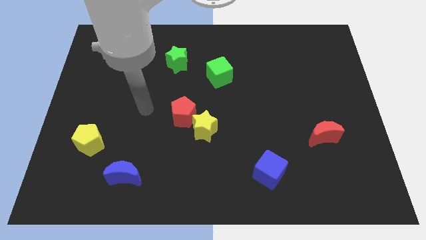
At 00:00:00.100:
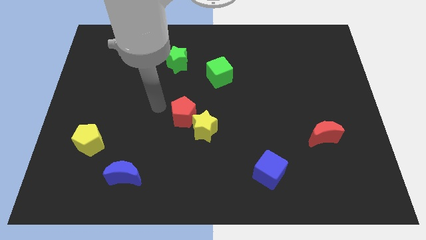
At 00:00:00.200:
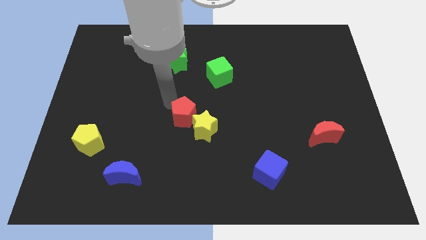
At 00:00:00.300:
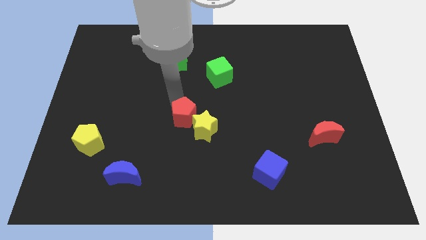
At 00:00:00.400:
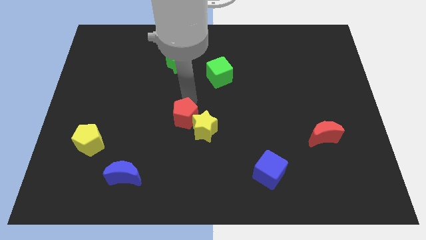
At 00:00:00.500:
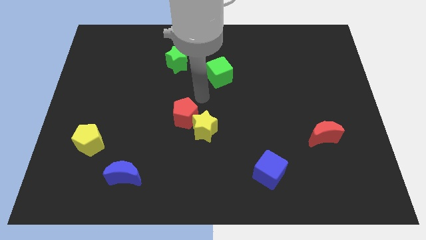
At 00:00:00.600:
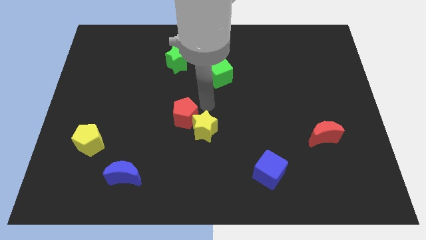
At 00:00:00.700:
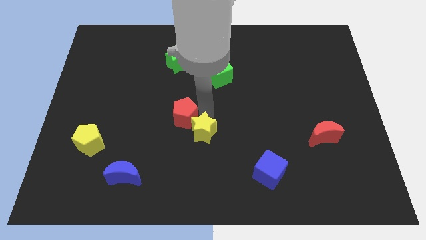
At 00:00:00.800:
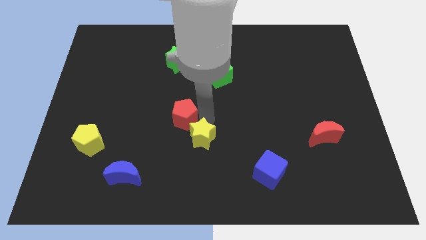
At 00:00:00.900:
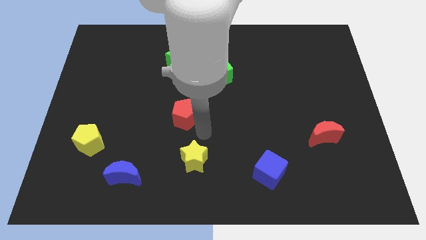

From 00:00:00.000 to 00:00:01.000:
move the red pentagon away from the yellow star

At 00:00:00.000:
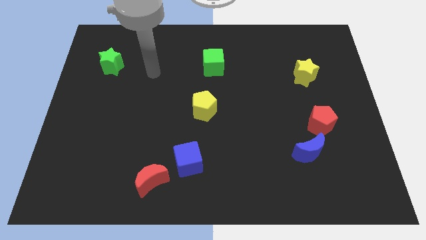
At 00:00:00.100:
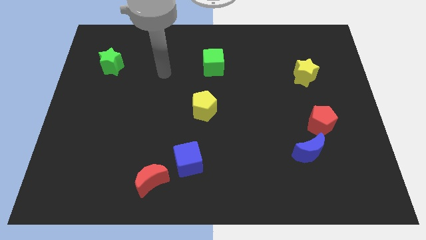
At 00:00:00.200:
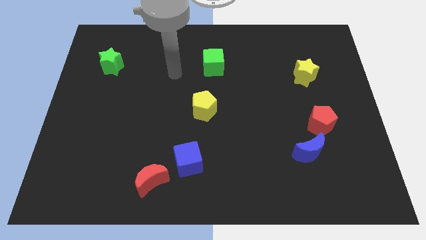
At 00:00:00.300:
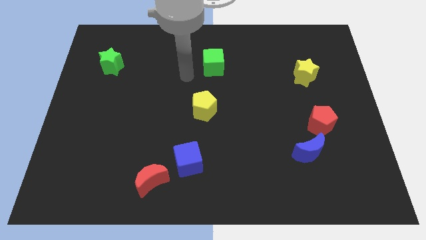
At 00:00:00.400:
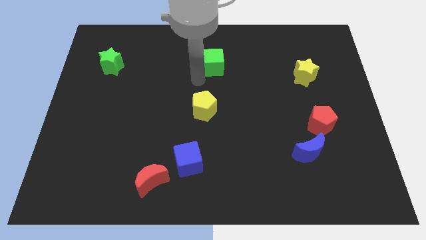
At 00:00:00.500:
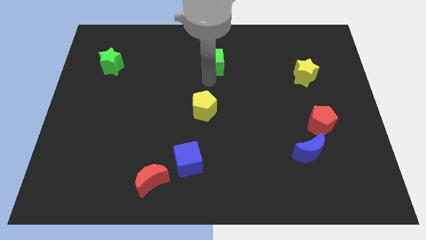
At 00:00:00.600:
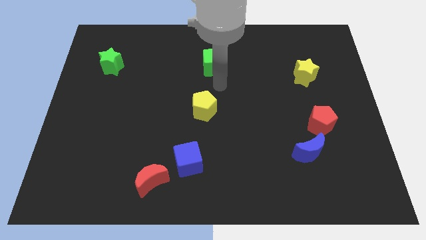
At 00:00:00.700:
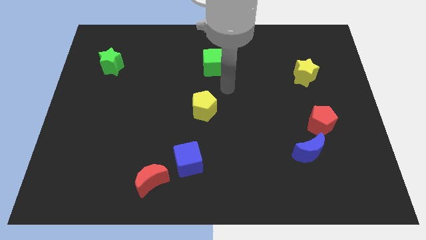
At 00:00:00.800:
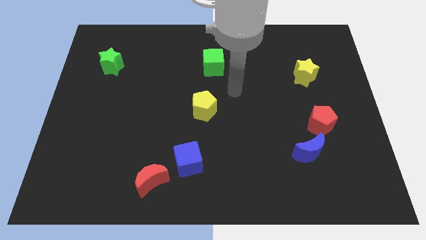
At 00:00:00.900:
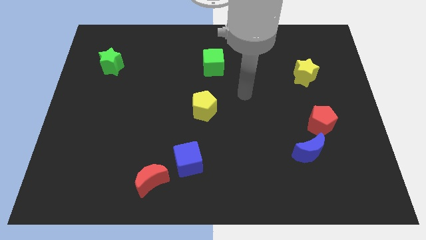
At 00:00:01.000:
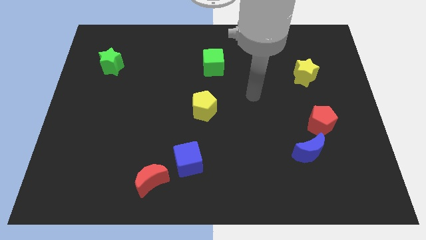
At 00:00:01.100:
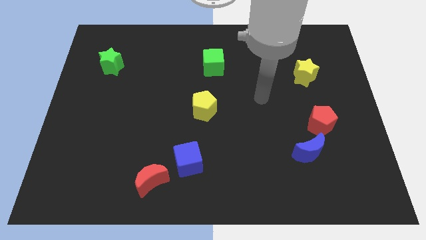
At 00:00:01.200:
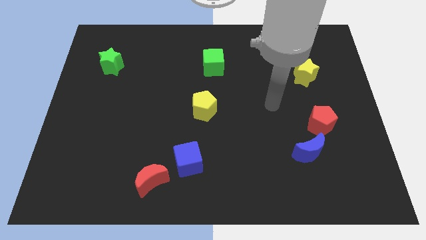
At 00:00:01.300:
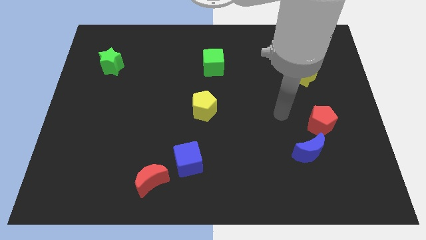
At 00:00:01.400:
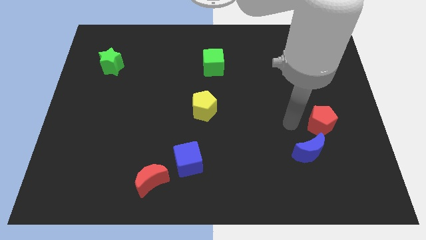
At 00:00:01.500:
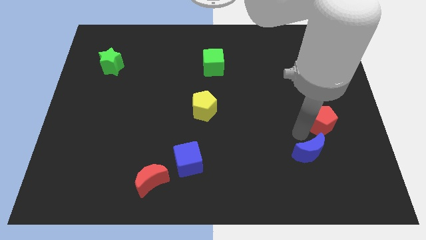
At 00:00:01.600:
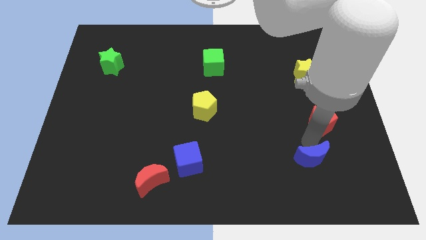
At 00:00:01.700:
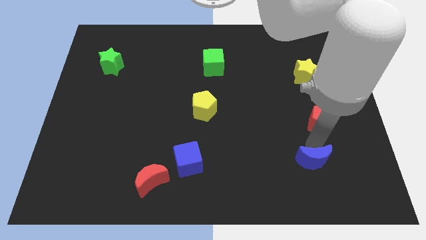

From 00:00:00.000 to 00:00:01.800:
separate the red pentagon from the blue moon

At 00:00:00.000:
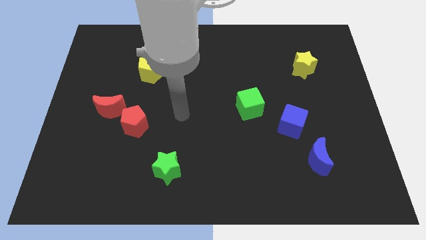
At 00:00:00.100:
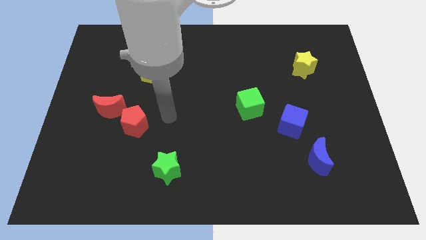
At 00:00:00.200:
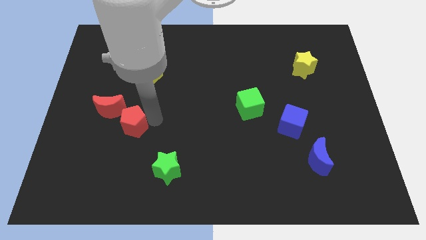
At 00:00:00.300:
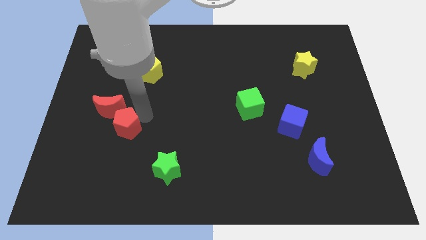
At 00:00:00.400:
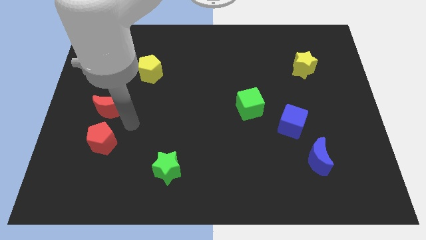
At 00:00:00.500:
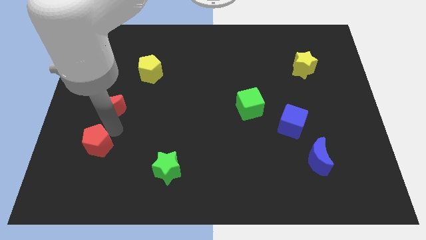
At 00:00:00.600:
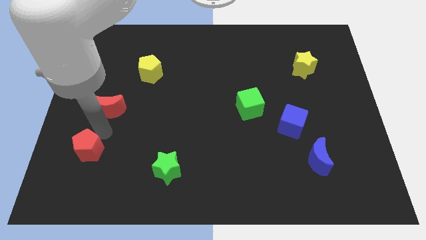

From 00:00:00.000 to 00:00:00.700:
separate the red moon from the red pentagon

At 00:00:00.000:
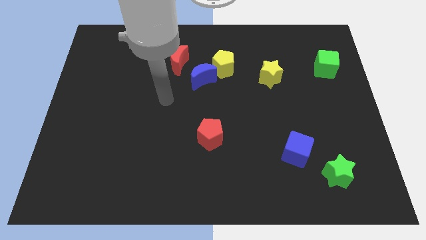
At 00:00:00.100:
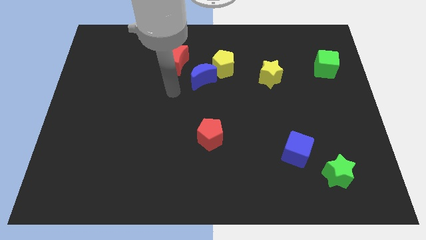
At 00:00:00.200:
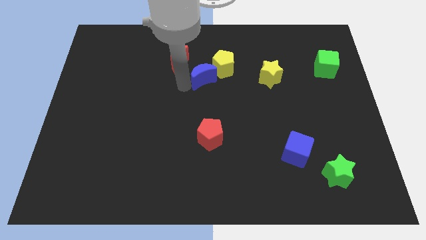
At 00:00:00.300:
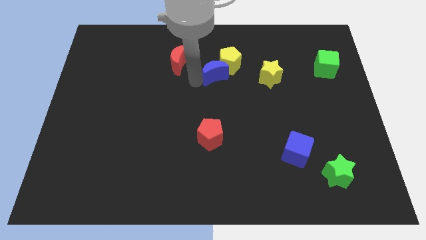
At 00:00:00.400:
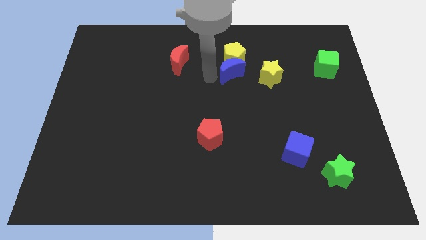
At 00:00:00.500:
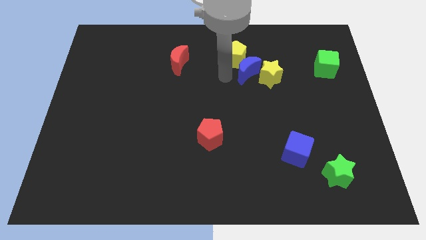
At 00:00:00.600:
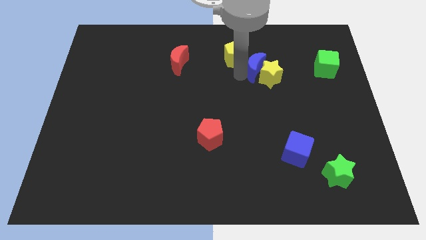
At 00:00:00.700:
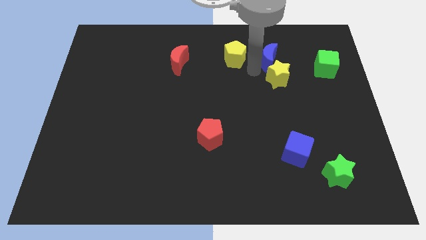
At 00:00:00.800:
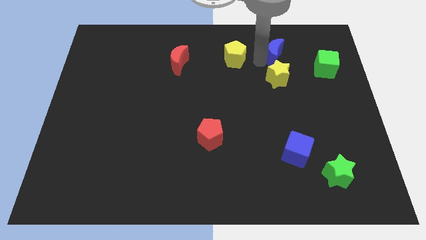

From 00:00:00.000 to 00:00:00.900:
pull the yellow pentagon apart from the blue moon

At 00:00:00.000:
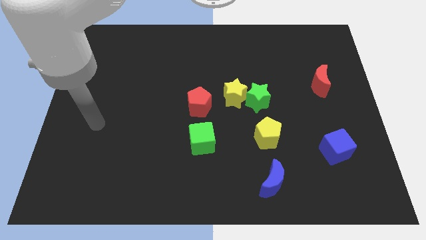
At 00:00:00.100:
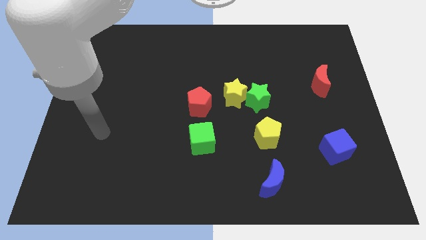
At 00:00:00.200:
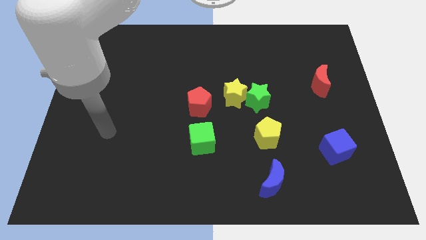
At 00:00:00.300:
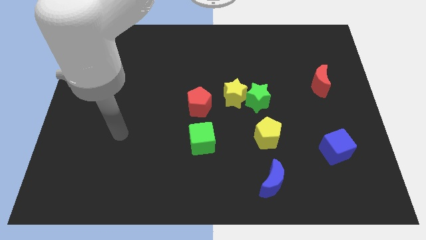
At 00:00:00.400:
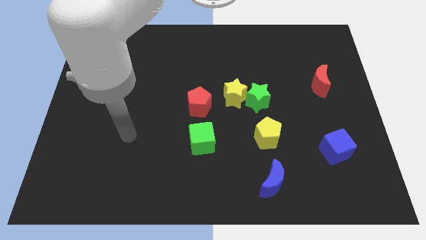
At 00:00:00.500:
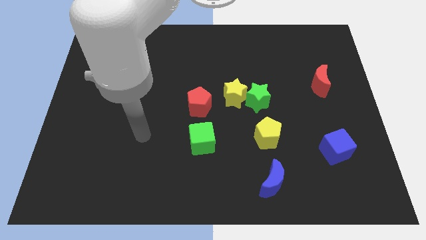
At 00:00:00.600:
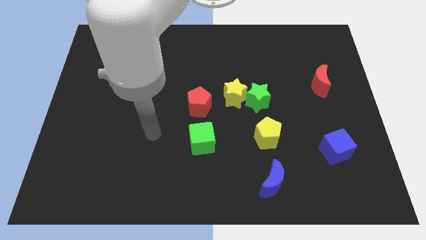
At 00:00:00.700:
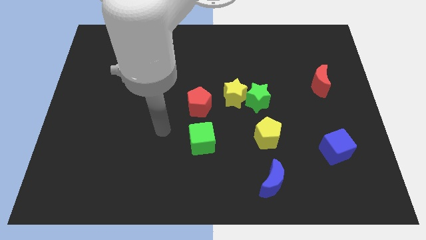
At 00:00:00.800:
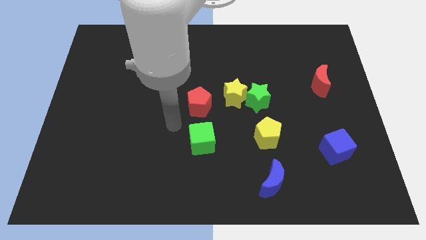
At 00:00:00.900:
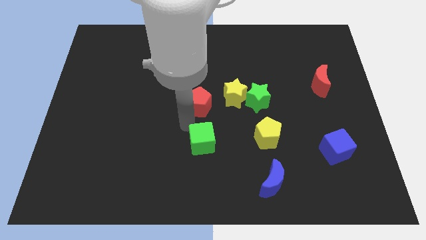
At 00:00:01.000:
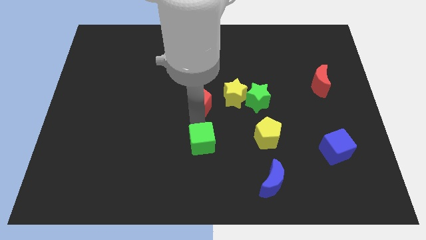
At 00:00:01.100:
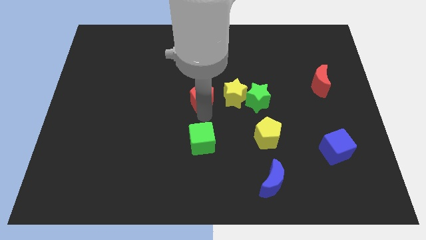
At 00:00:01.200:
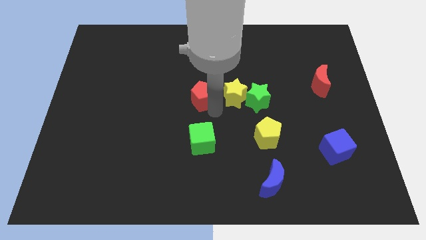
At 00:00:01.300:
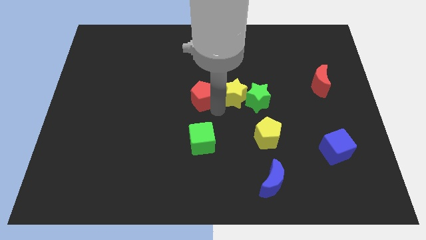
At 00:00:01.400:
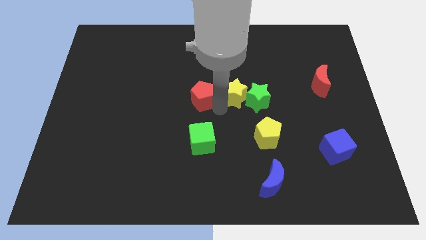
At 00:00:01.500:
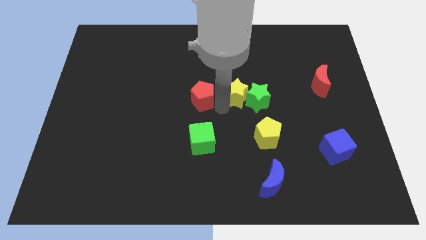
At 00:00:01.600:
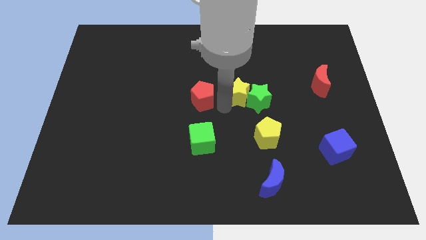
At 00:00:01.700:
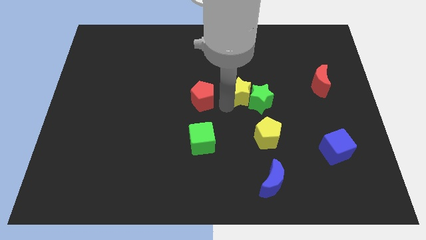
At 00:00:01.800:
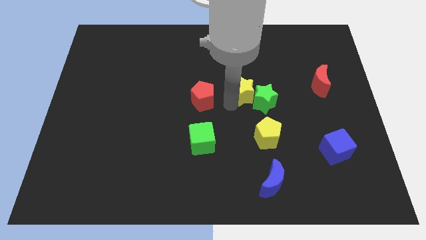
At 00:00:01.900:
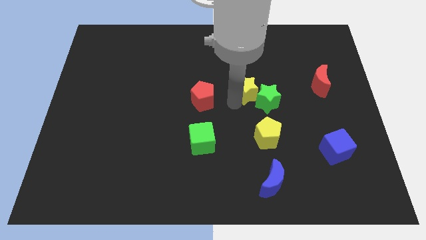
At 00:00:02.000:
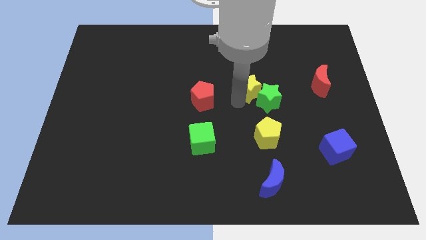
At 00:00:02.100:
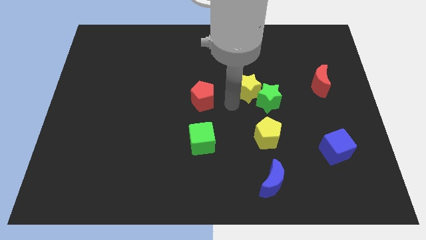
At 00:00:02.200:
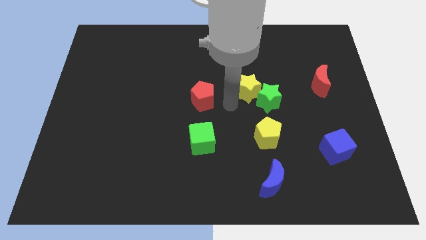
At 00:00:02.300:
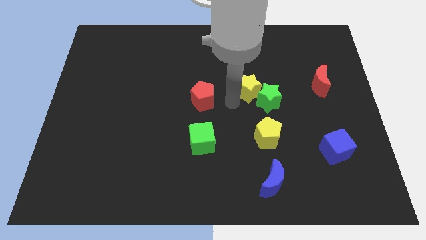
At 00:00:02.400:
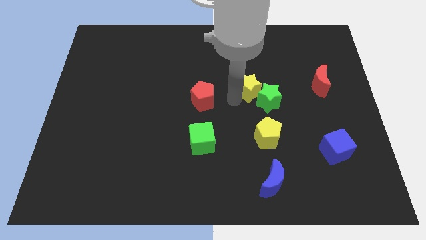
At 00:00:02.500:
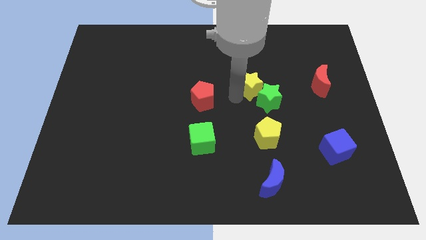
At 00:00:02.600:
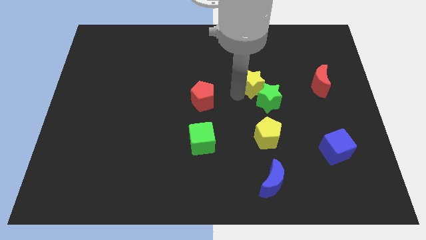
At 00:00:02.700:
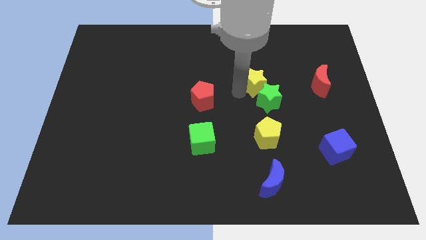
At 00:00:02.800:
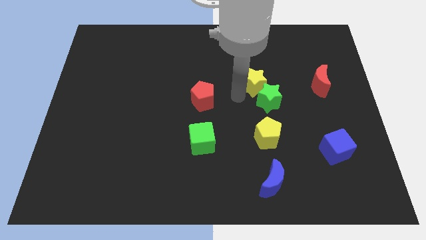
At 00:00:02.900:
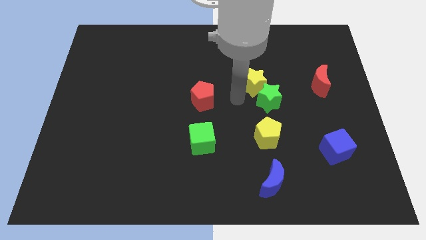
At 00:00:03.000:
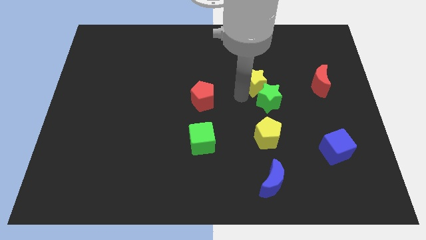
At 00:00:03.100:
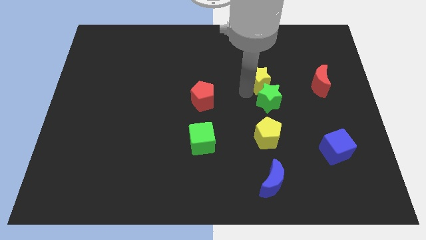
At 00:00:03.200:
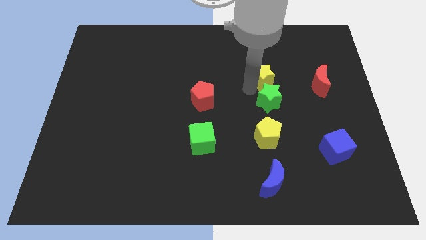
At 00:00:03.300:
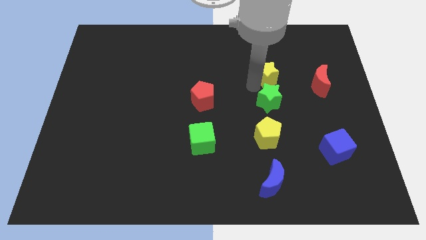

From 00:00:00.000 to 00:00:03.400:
move the yellow star away from the green star and red pentagon

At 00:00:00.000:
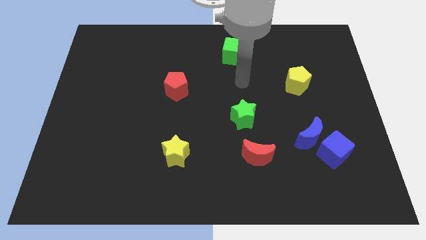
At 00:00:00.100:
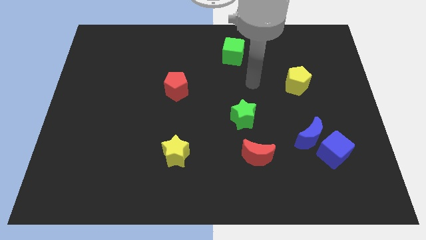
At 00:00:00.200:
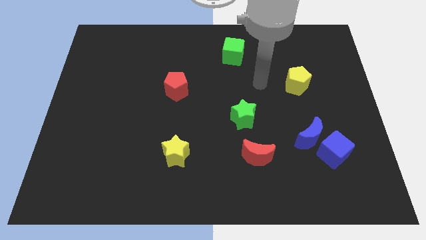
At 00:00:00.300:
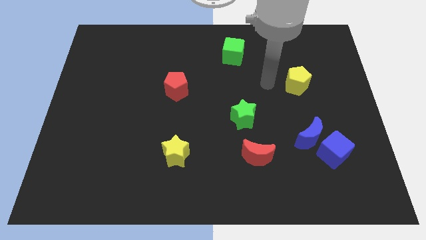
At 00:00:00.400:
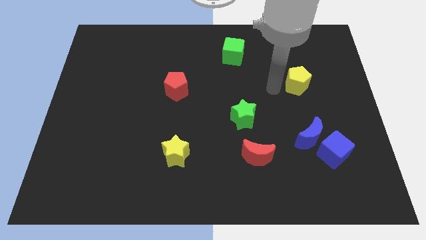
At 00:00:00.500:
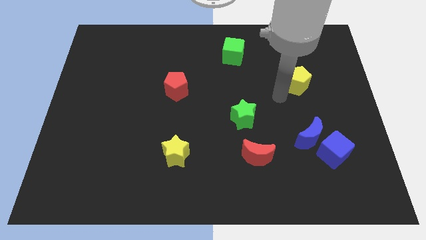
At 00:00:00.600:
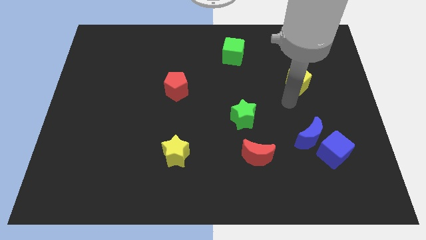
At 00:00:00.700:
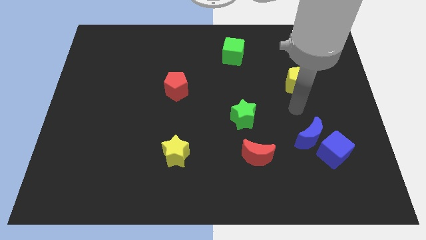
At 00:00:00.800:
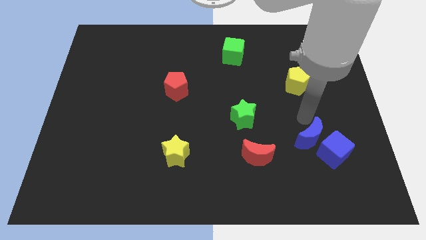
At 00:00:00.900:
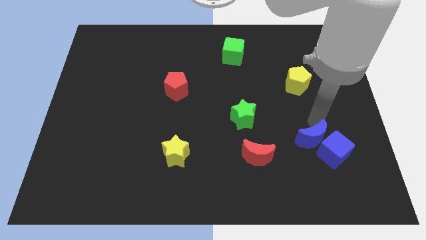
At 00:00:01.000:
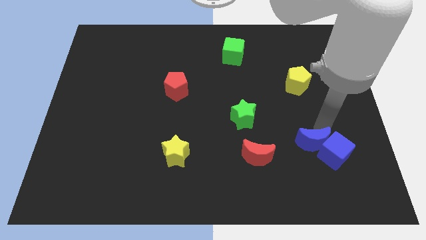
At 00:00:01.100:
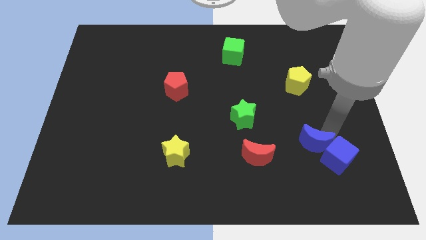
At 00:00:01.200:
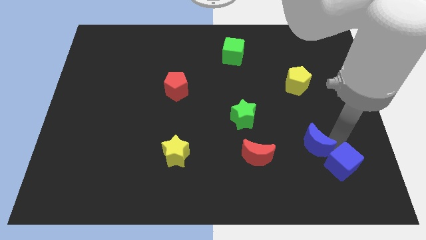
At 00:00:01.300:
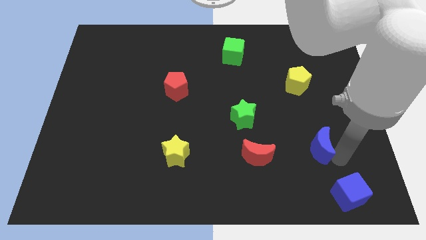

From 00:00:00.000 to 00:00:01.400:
separate the blue moon from the blue cube
